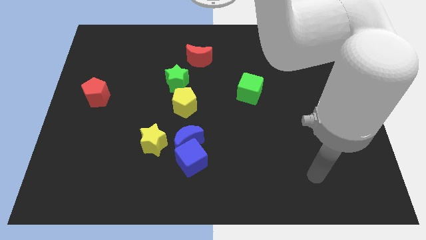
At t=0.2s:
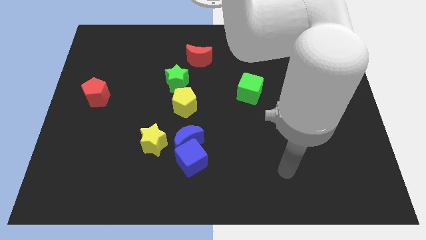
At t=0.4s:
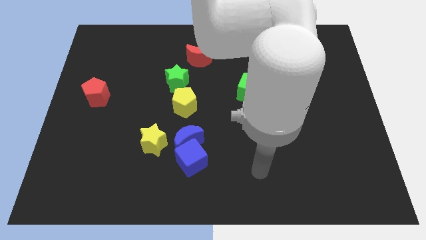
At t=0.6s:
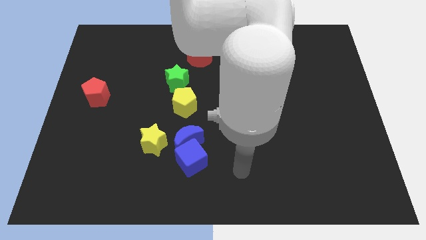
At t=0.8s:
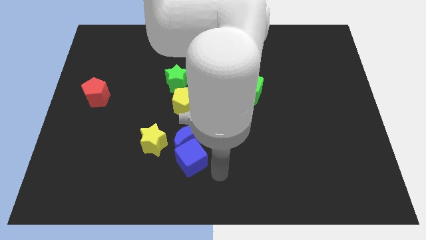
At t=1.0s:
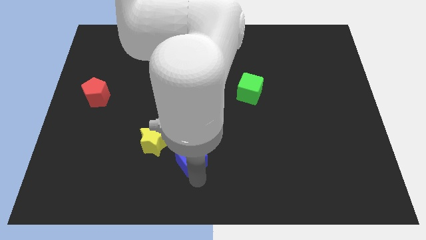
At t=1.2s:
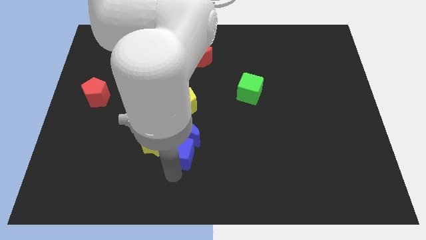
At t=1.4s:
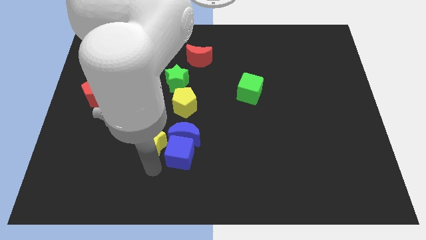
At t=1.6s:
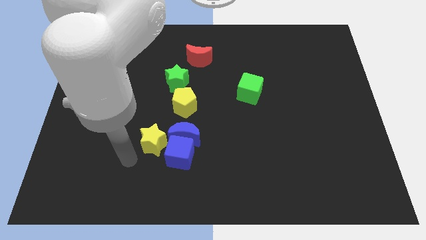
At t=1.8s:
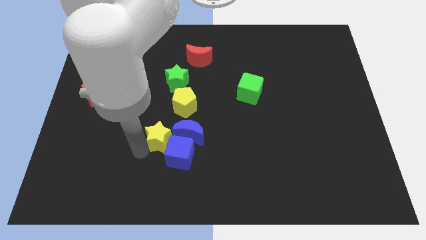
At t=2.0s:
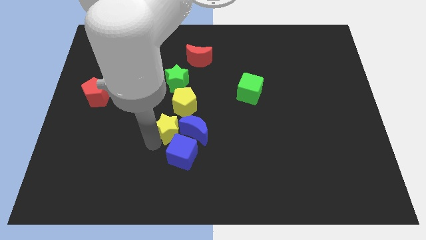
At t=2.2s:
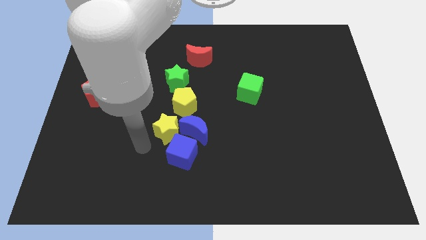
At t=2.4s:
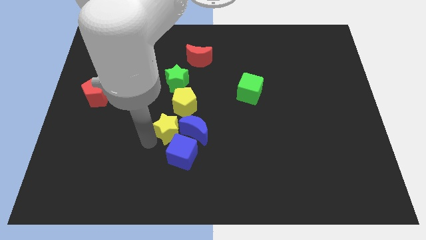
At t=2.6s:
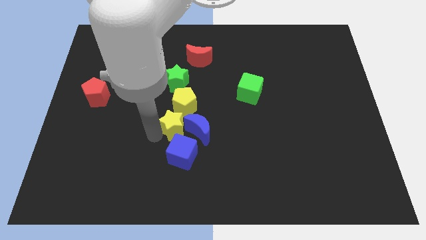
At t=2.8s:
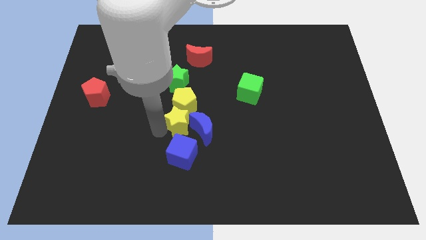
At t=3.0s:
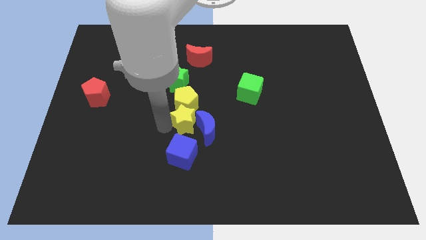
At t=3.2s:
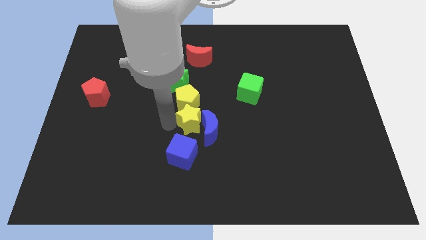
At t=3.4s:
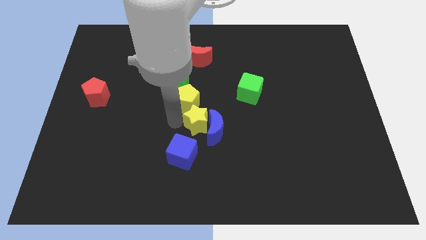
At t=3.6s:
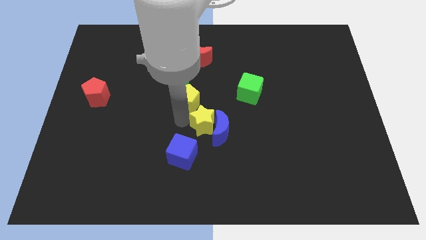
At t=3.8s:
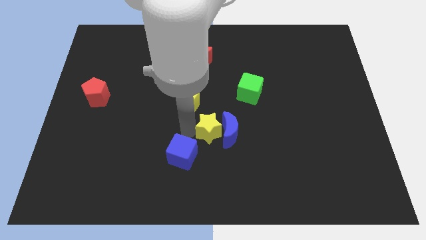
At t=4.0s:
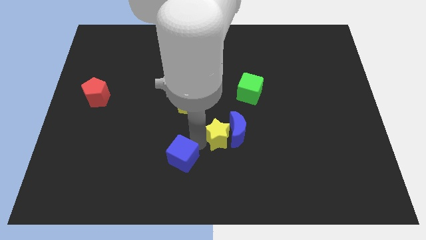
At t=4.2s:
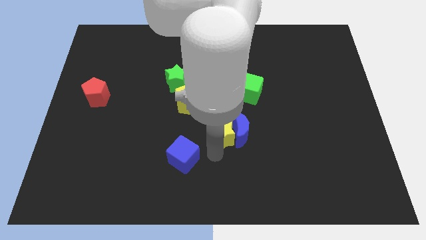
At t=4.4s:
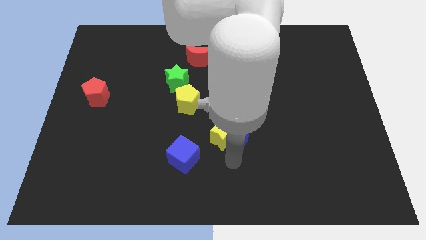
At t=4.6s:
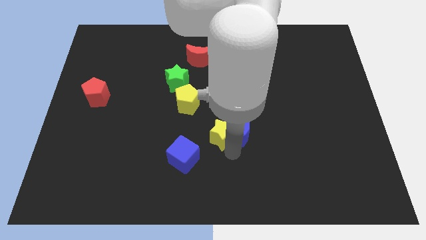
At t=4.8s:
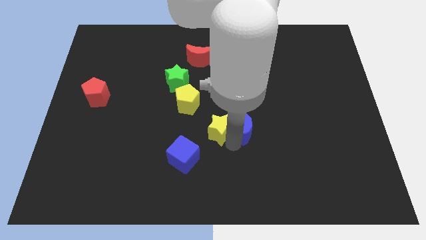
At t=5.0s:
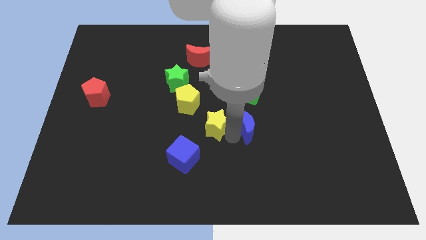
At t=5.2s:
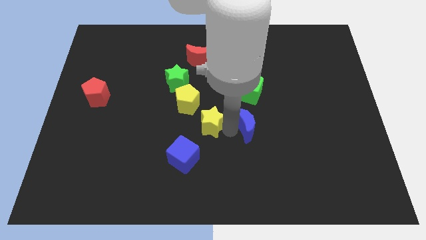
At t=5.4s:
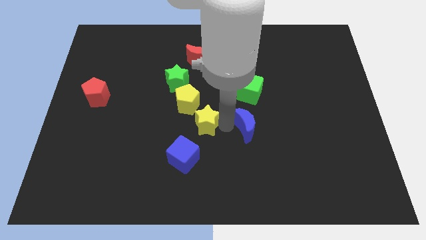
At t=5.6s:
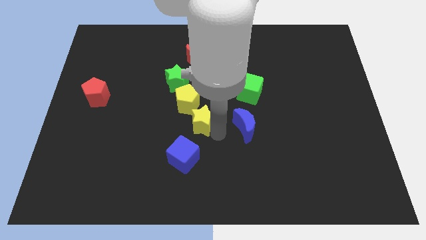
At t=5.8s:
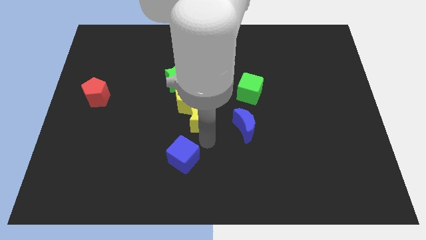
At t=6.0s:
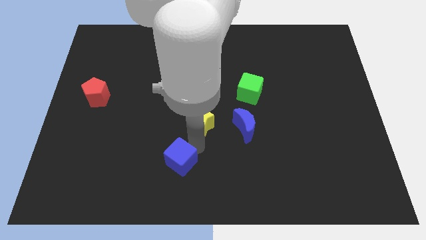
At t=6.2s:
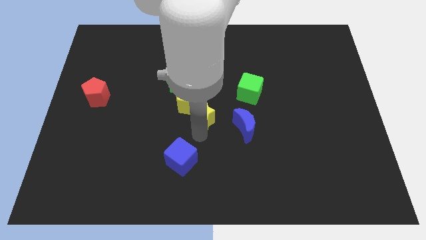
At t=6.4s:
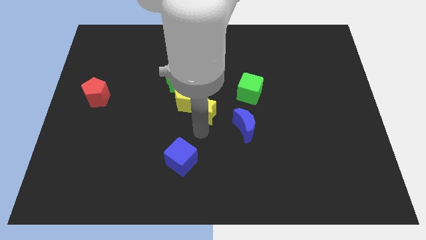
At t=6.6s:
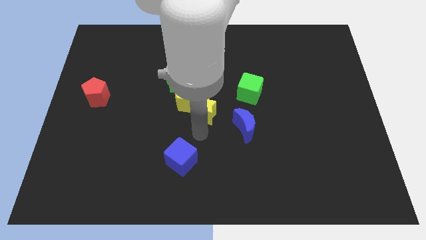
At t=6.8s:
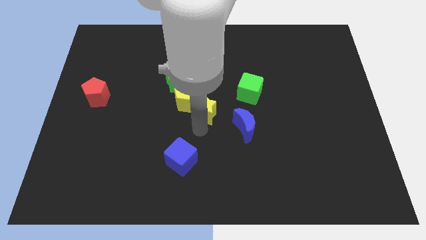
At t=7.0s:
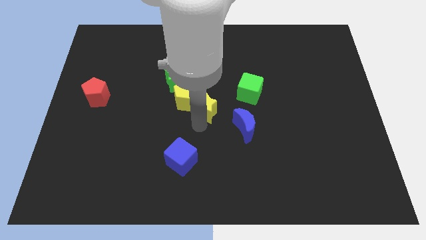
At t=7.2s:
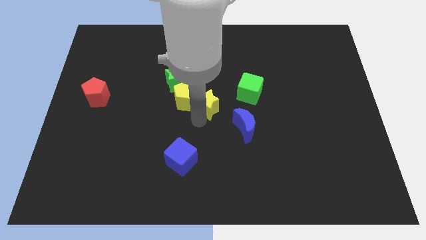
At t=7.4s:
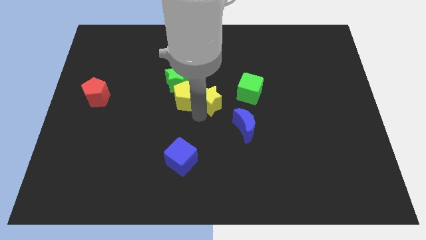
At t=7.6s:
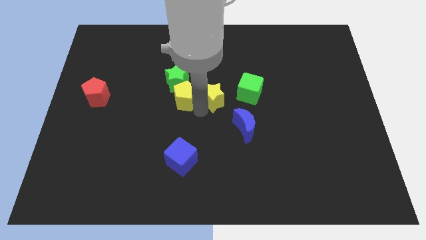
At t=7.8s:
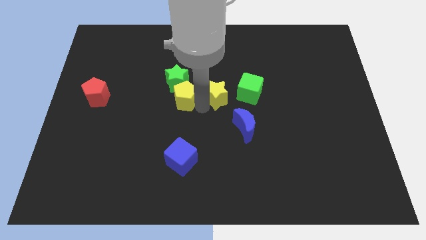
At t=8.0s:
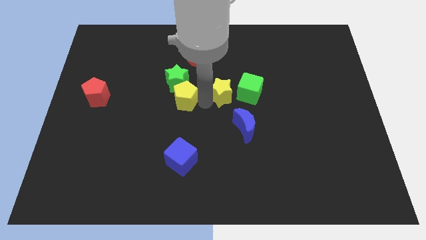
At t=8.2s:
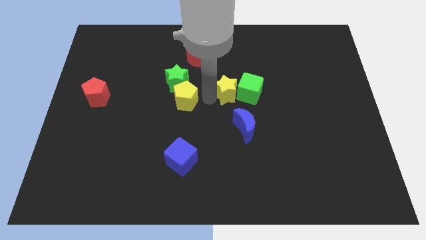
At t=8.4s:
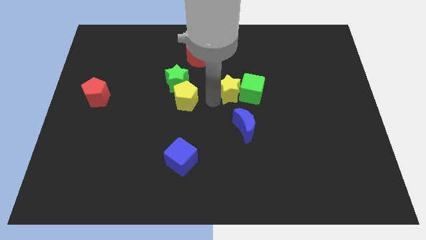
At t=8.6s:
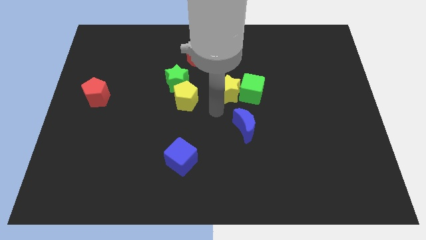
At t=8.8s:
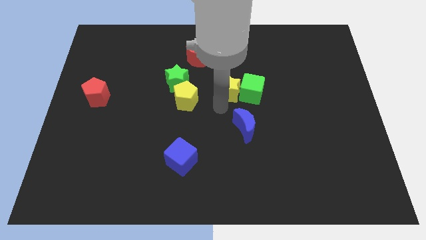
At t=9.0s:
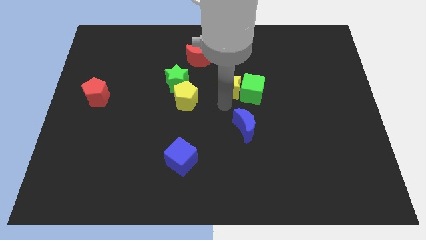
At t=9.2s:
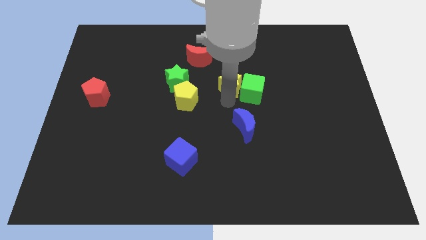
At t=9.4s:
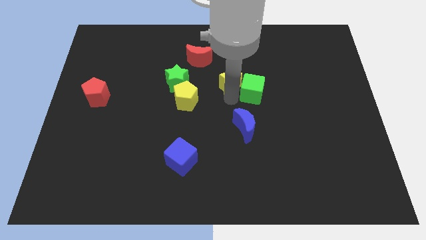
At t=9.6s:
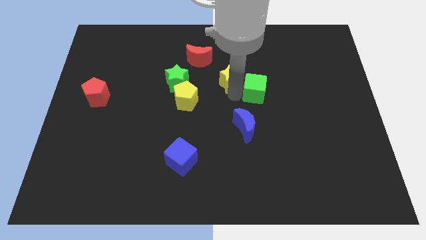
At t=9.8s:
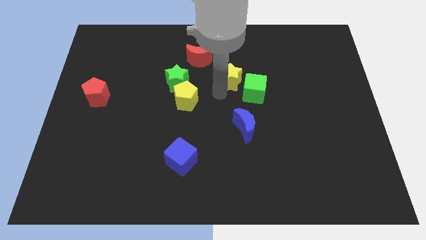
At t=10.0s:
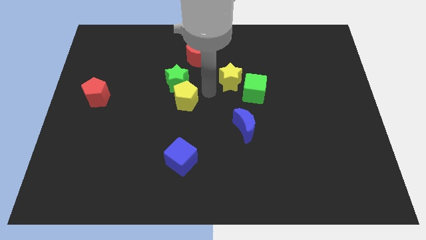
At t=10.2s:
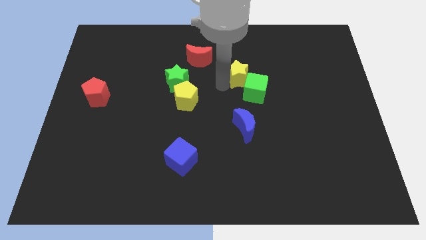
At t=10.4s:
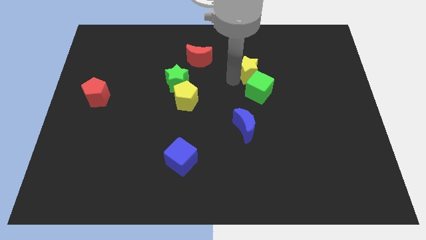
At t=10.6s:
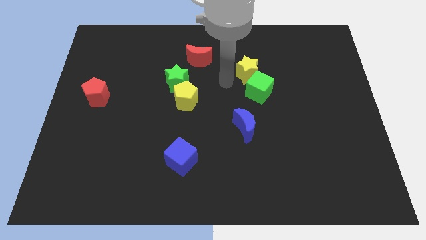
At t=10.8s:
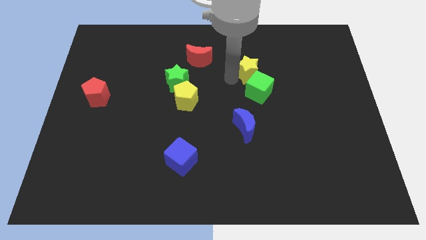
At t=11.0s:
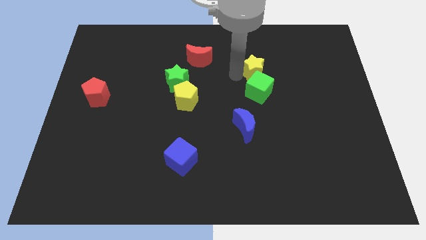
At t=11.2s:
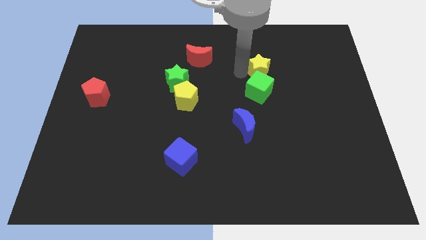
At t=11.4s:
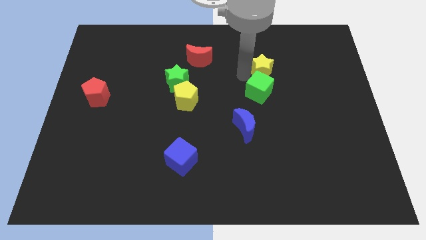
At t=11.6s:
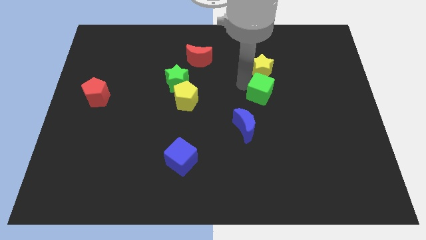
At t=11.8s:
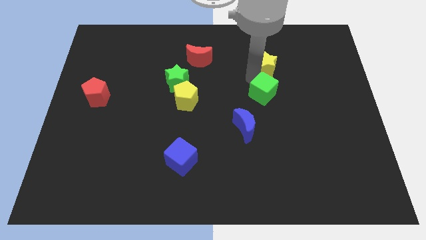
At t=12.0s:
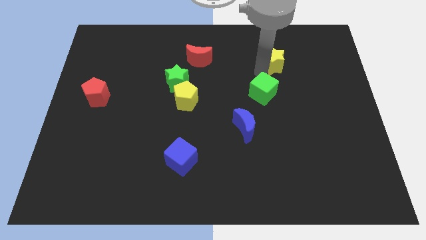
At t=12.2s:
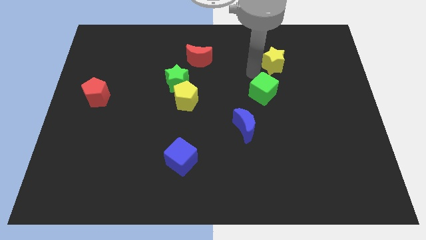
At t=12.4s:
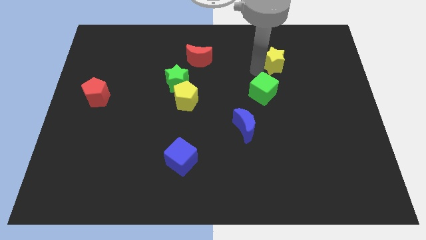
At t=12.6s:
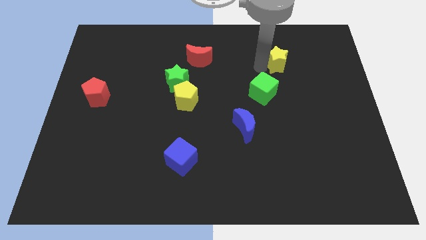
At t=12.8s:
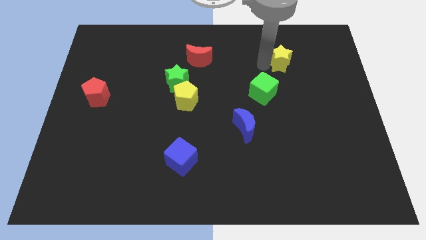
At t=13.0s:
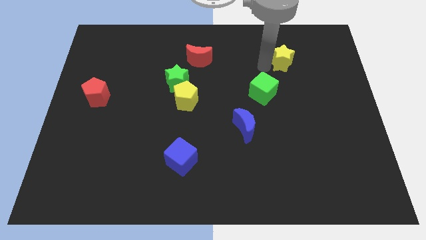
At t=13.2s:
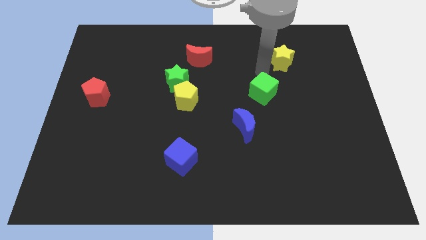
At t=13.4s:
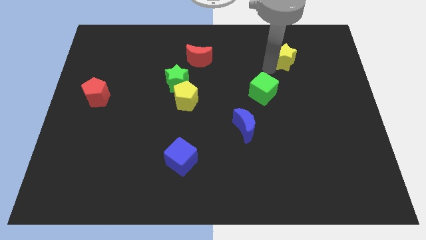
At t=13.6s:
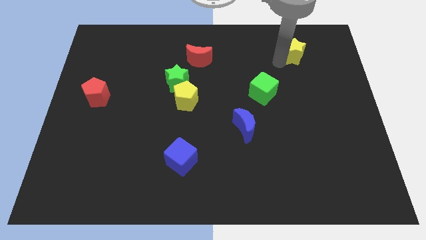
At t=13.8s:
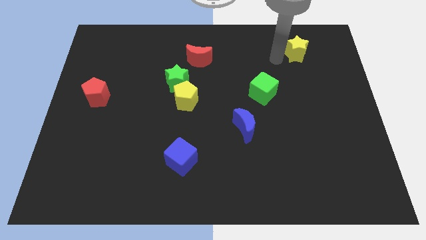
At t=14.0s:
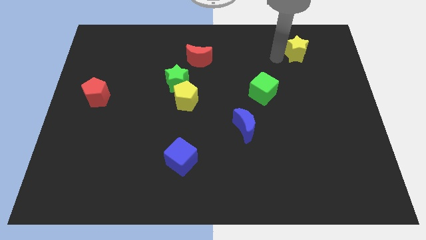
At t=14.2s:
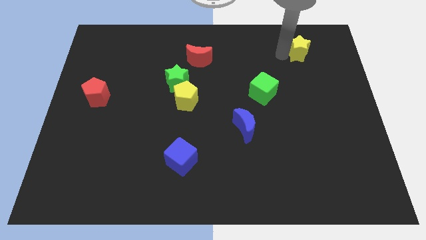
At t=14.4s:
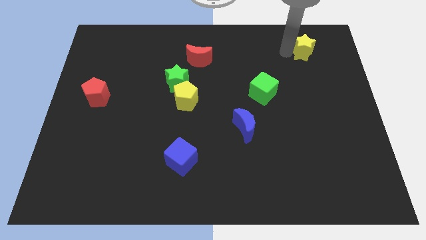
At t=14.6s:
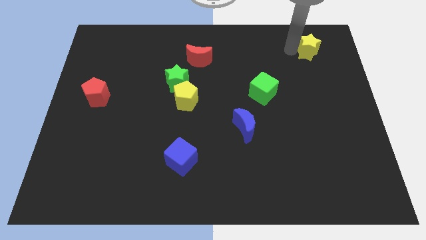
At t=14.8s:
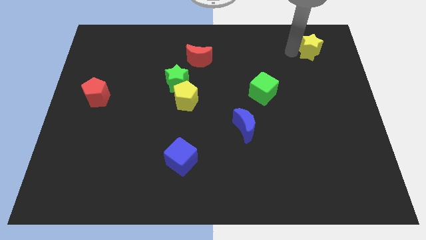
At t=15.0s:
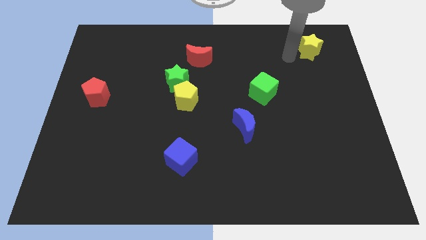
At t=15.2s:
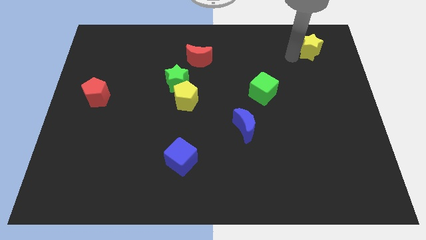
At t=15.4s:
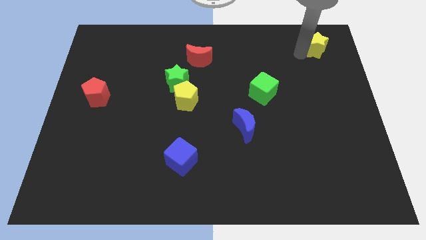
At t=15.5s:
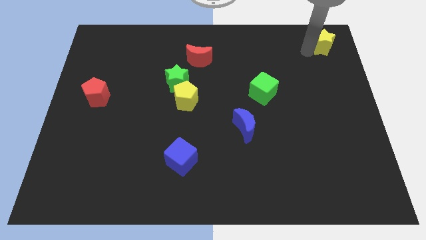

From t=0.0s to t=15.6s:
push the yellow star to the upper right corner
